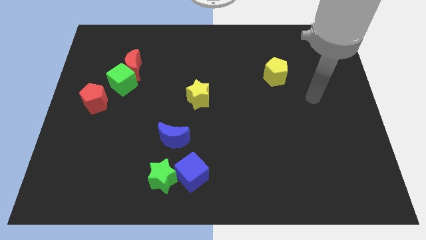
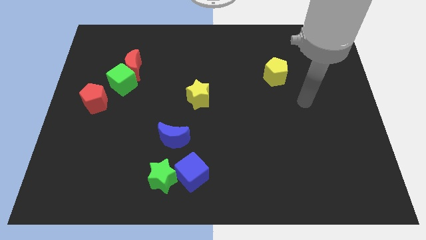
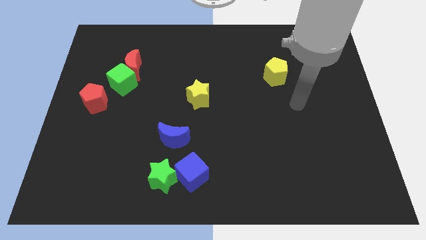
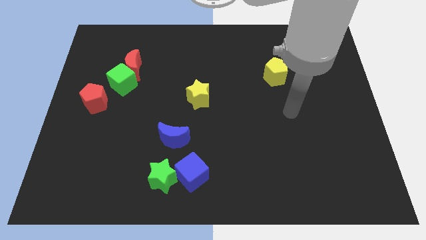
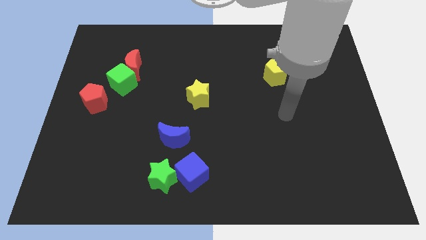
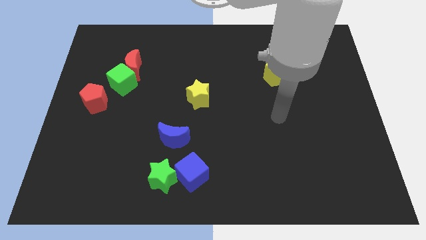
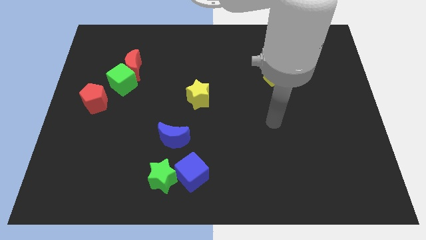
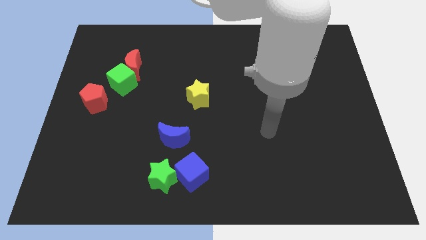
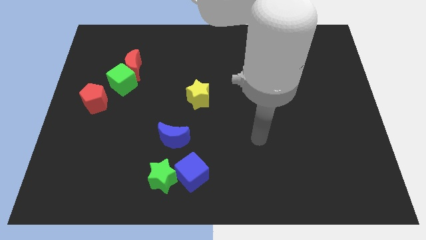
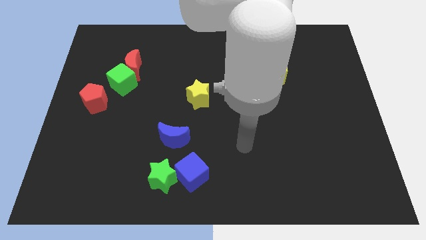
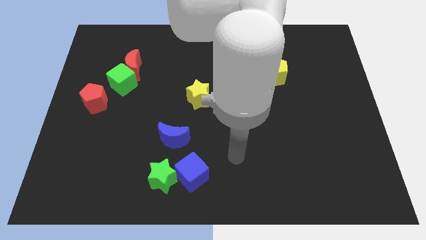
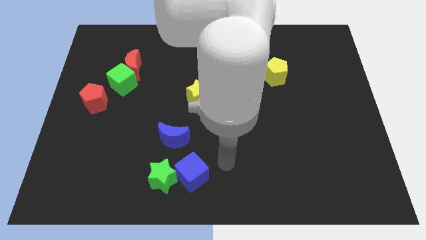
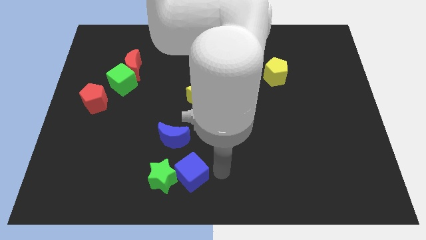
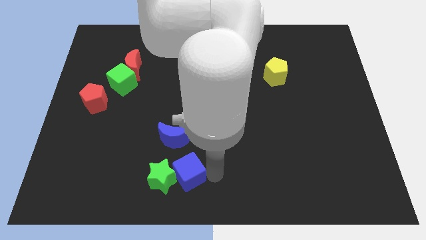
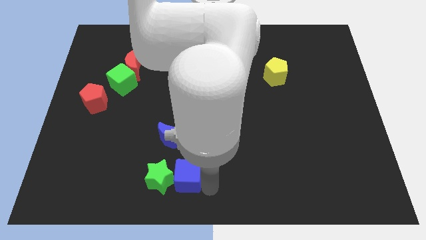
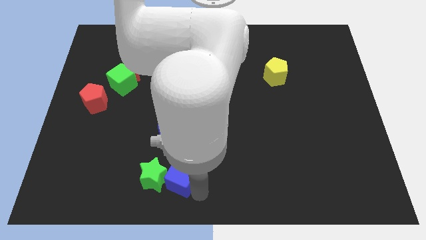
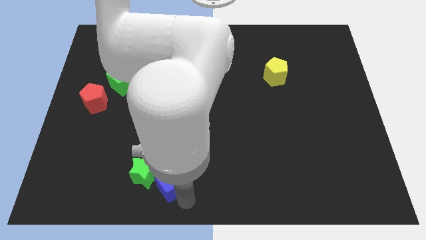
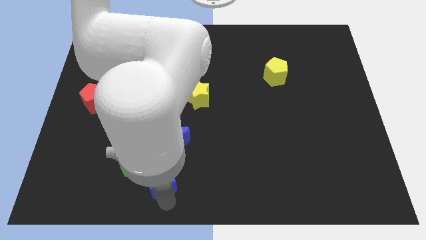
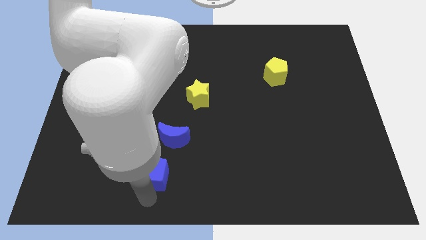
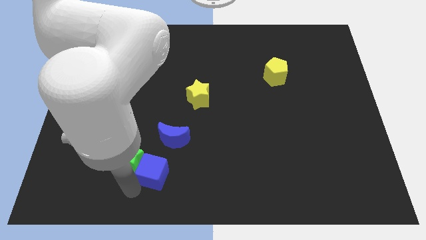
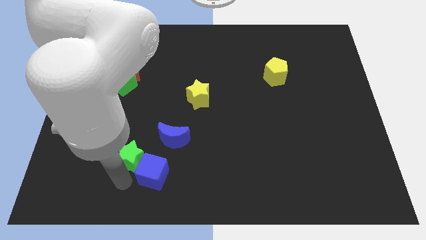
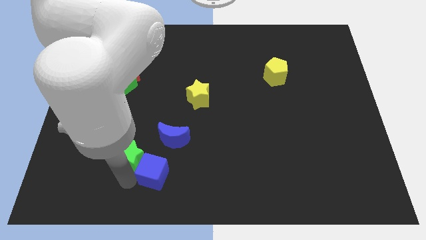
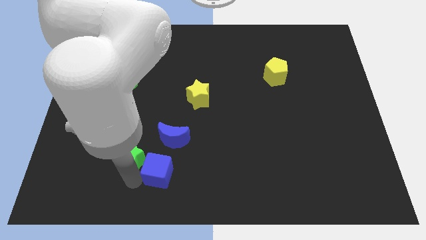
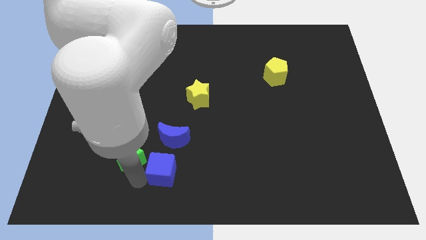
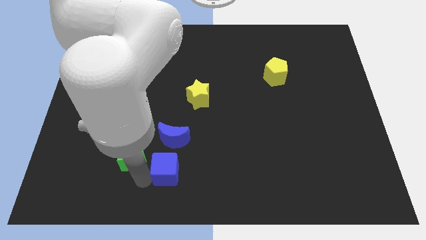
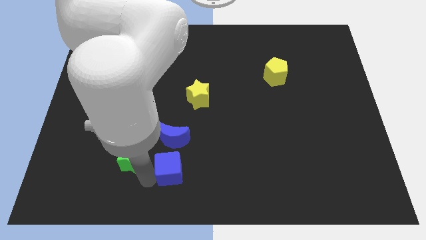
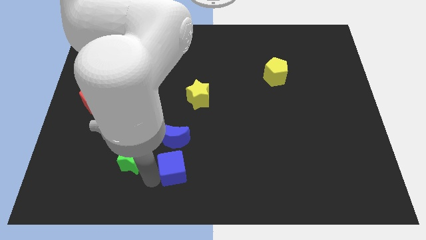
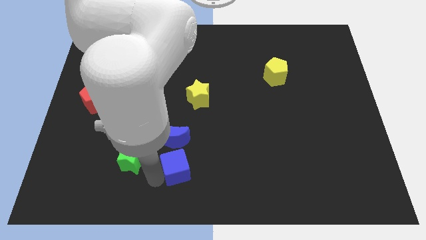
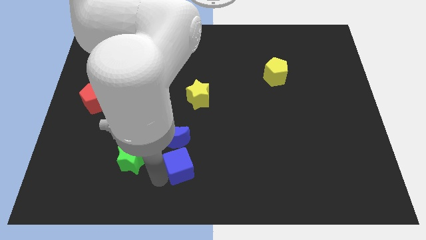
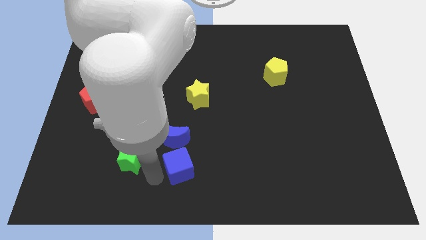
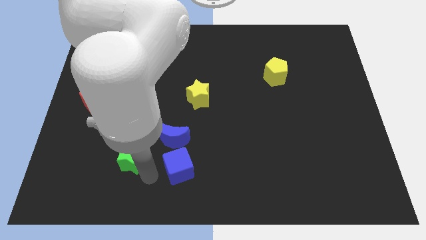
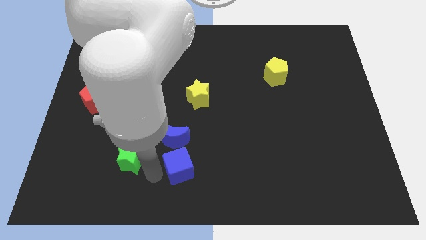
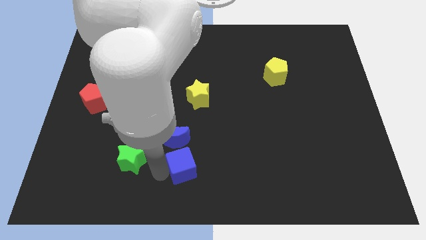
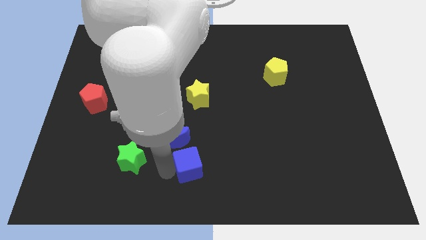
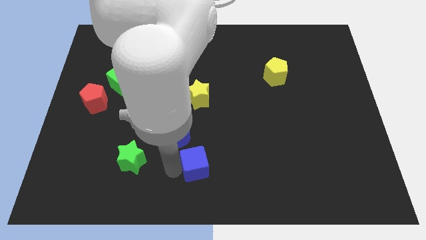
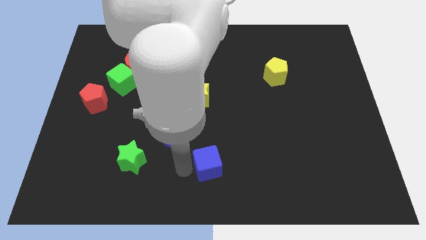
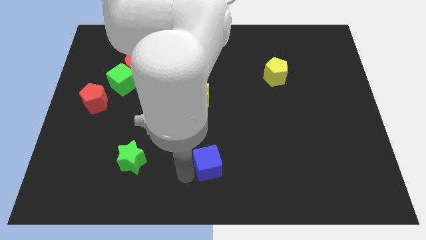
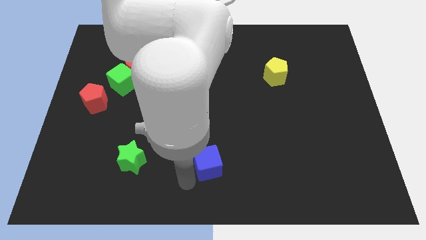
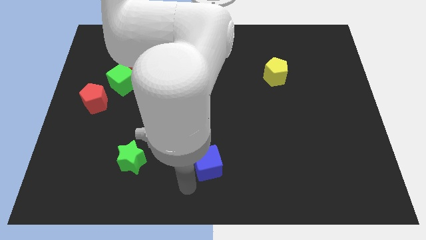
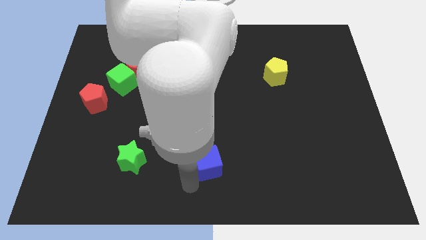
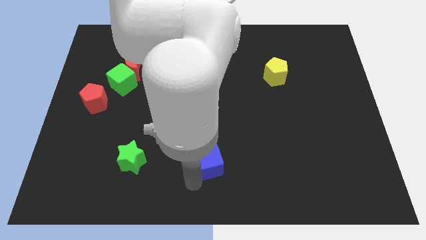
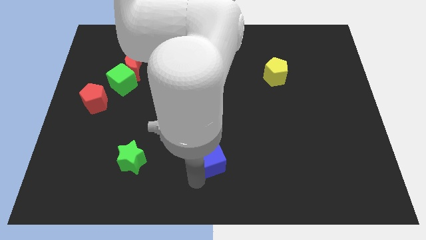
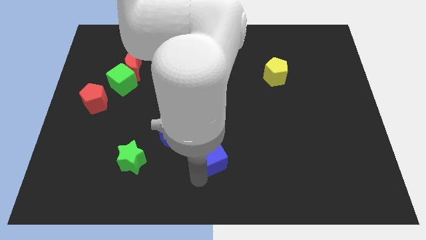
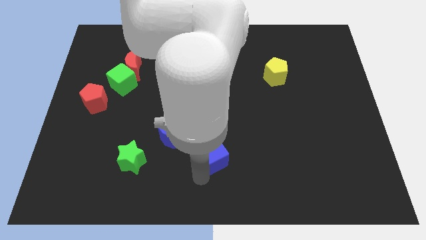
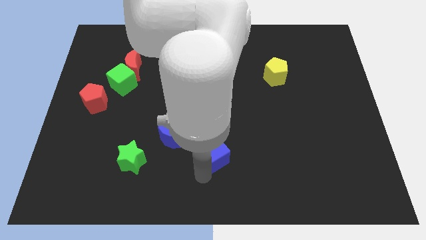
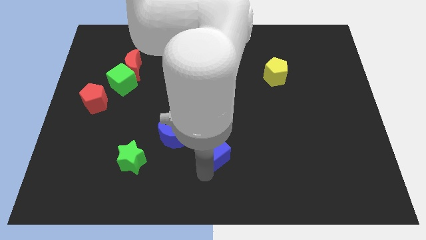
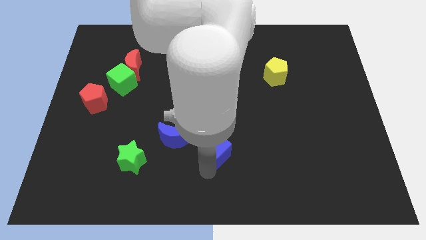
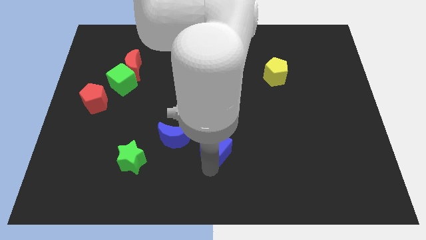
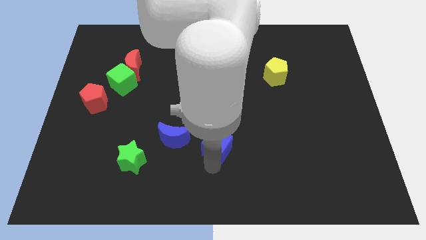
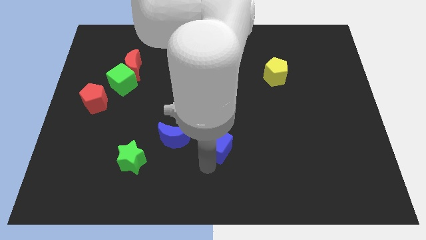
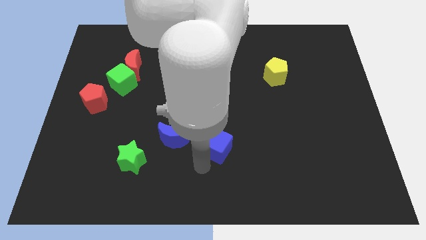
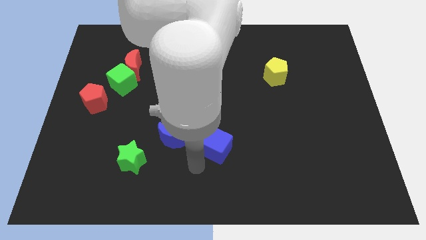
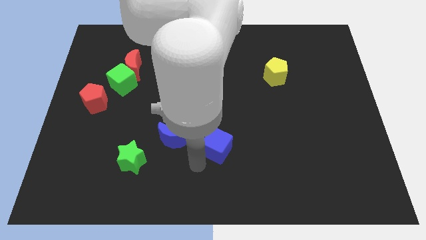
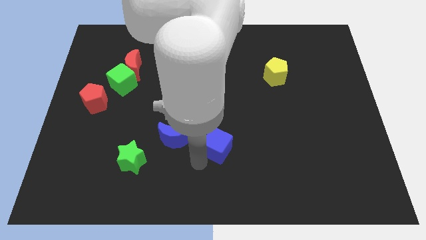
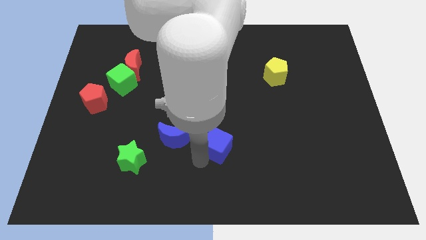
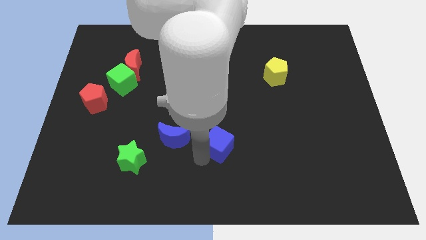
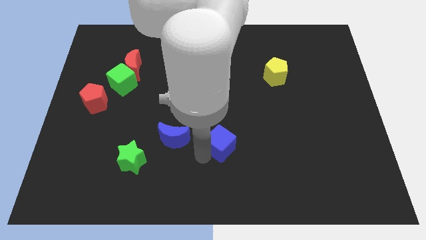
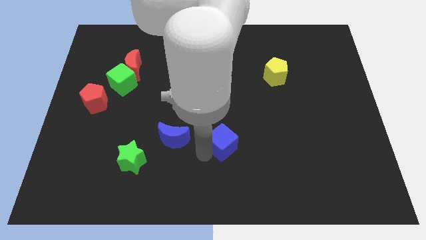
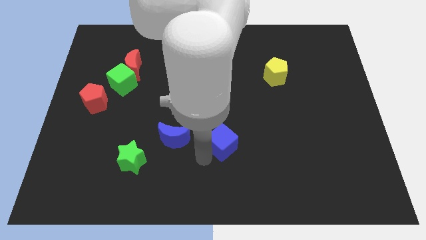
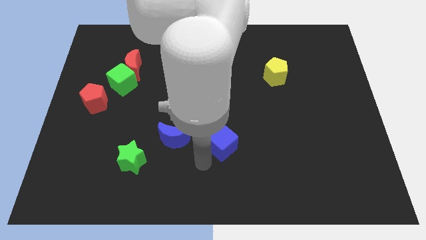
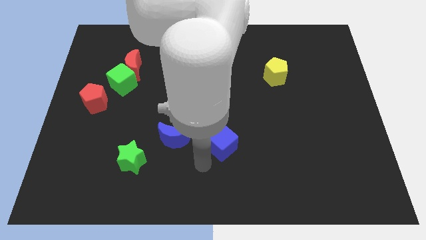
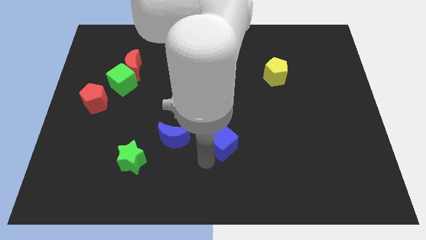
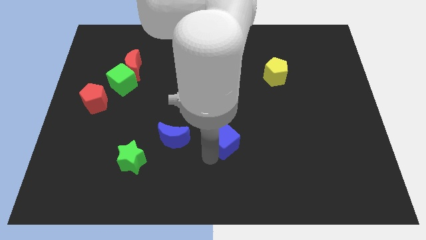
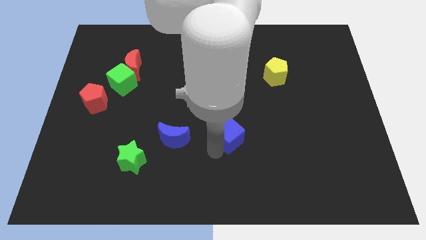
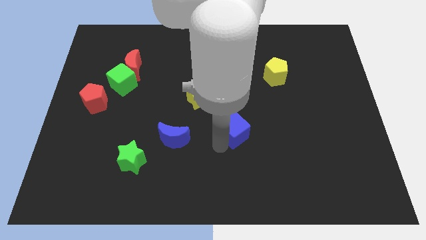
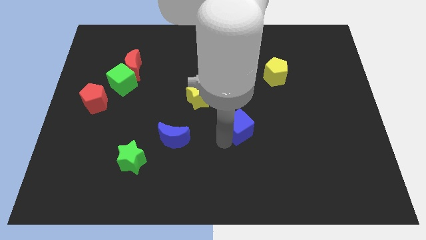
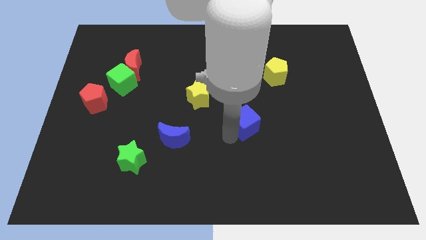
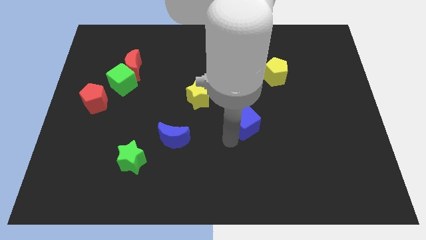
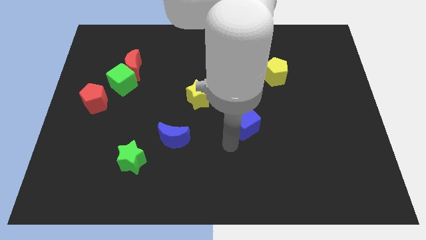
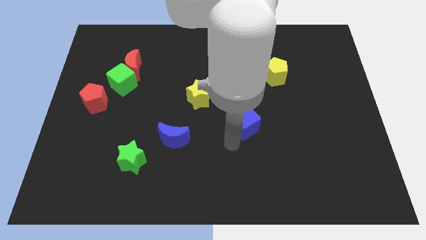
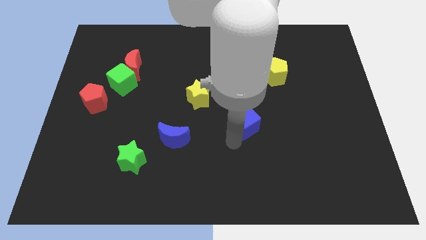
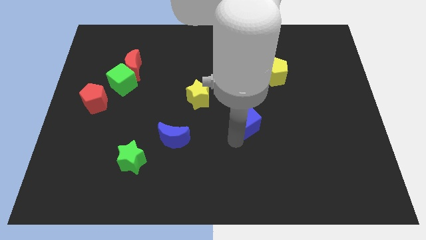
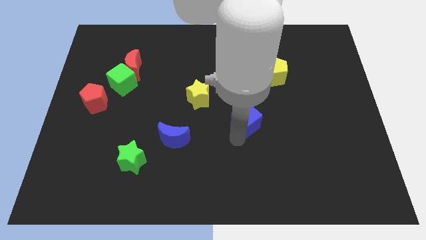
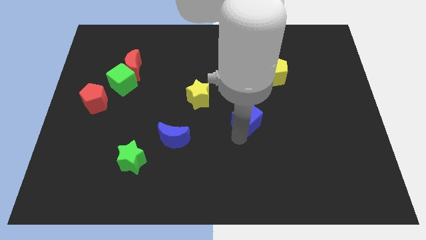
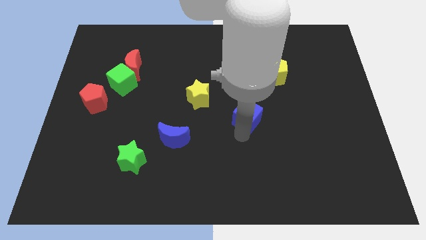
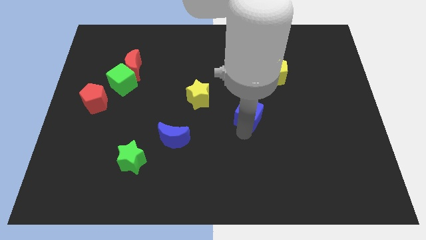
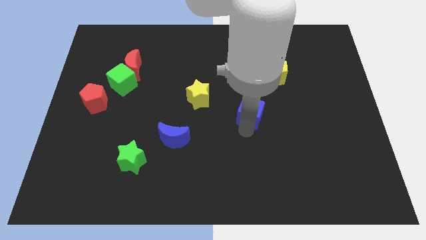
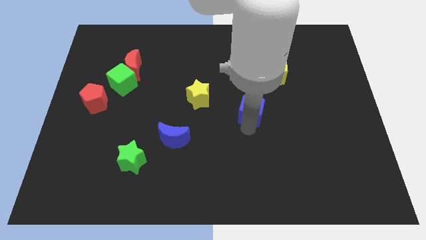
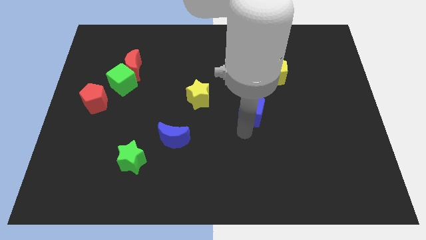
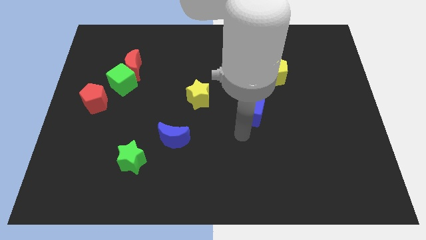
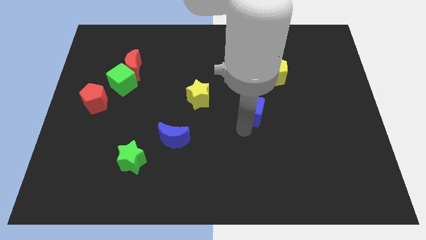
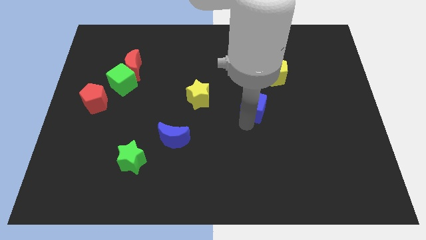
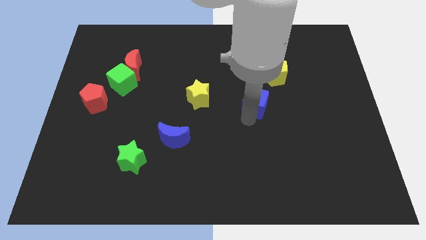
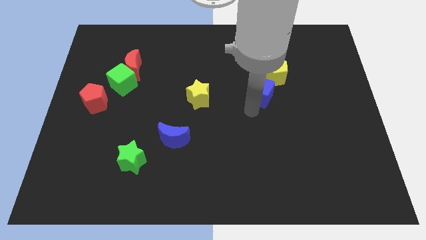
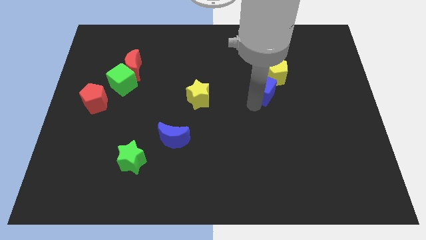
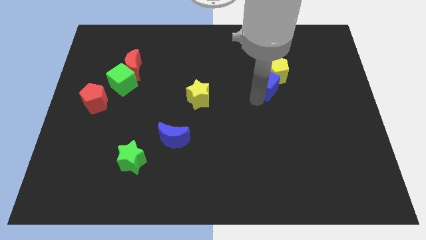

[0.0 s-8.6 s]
put the blue cube to the yellow pentagon
